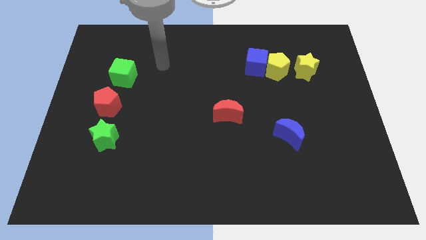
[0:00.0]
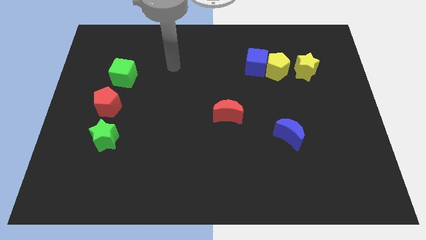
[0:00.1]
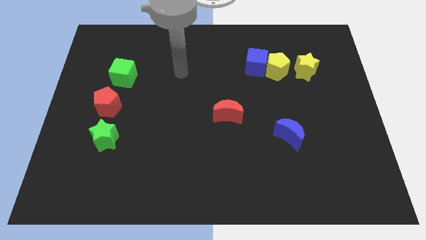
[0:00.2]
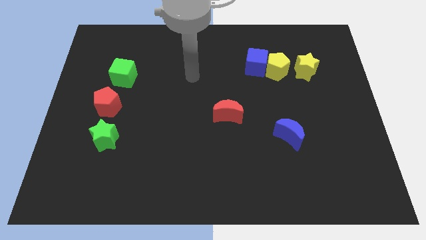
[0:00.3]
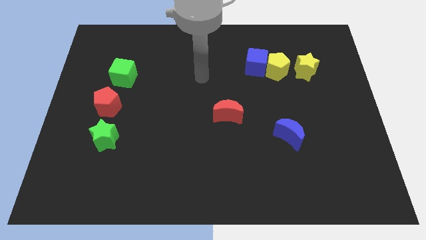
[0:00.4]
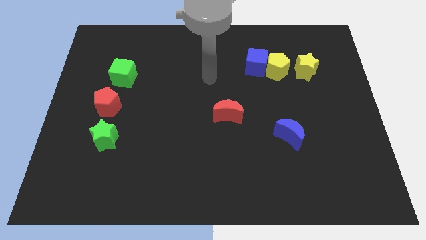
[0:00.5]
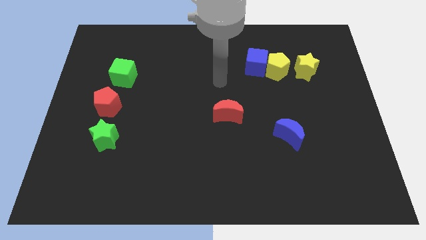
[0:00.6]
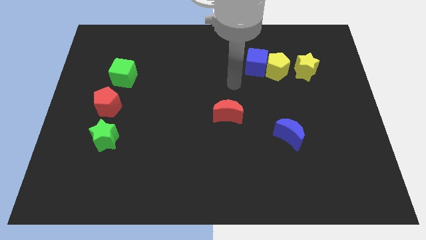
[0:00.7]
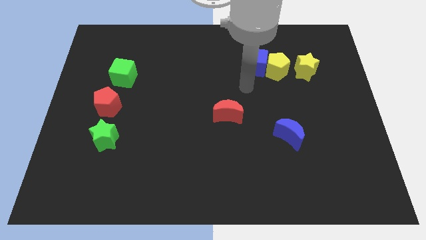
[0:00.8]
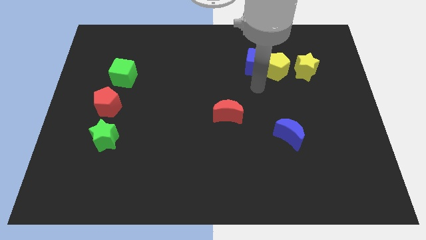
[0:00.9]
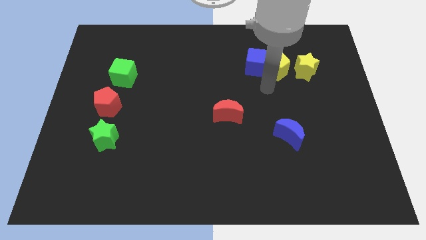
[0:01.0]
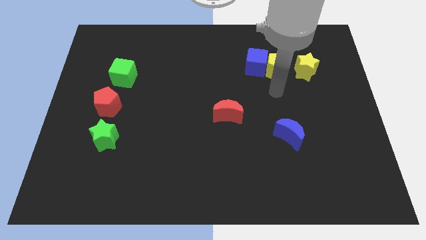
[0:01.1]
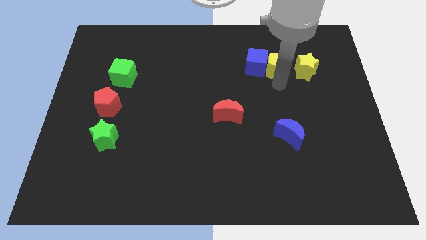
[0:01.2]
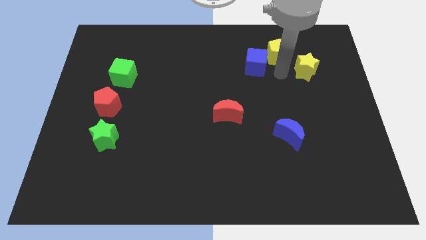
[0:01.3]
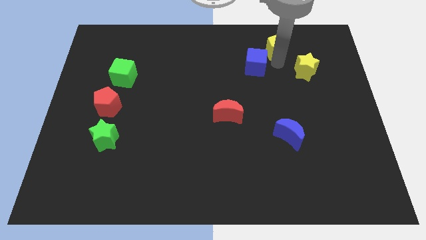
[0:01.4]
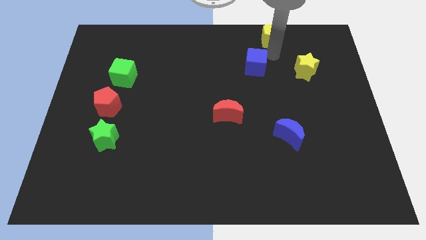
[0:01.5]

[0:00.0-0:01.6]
pull the blue cube apart from the yellow pentagon

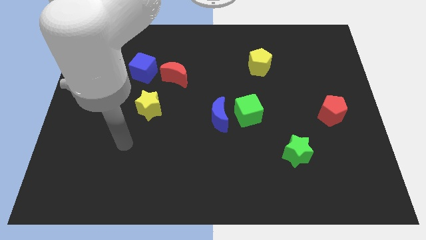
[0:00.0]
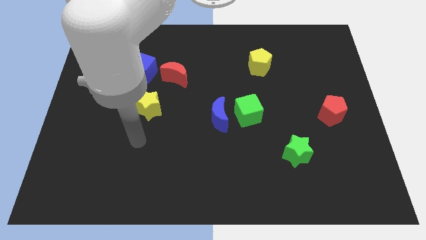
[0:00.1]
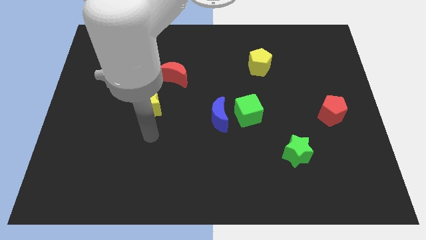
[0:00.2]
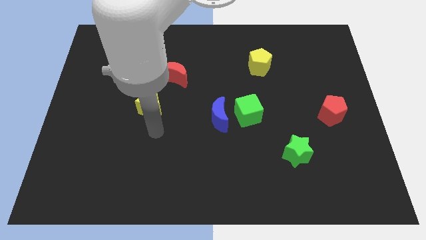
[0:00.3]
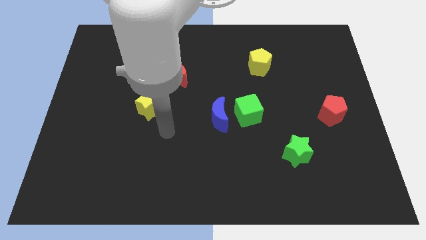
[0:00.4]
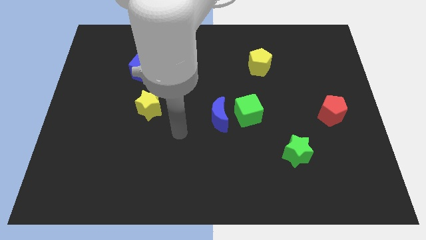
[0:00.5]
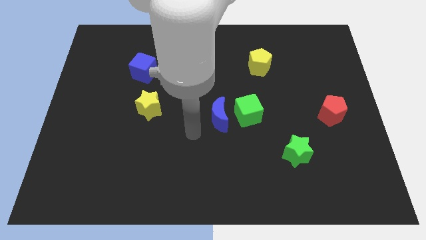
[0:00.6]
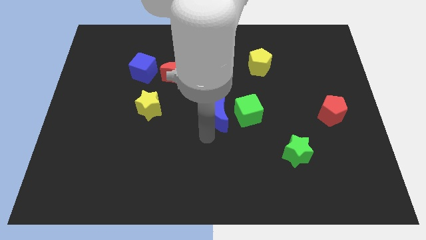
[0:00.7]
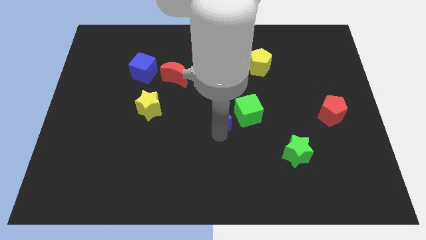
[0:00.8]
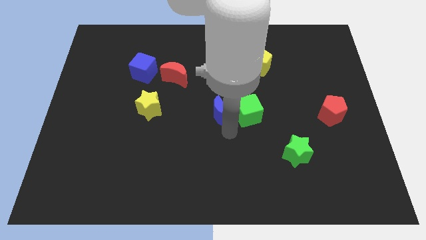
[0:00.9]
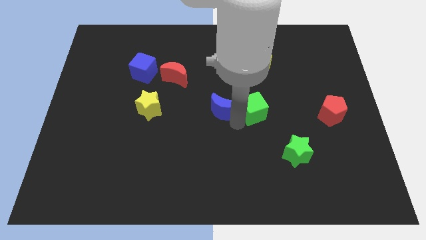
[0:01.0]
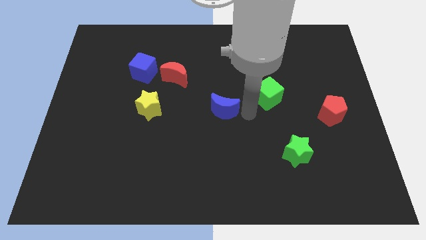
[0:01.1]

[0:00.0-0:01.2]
pull the blue moon apart from the green cube

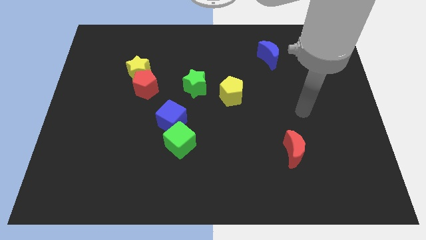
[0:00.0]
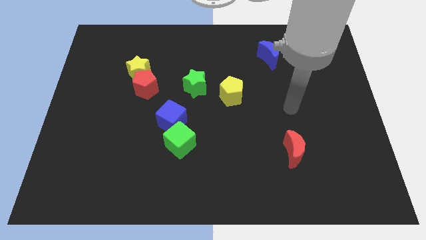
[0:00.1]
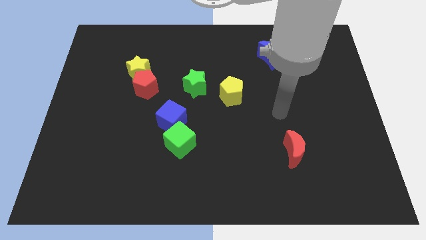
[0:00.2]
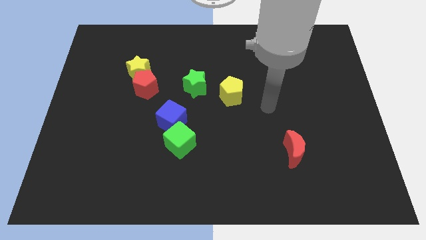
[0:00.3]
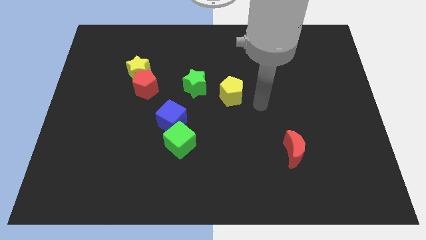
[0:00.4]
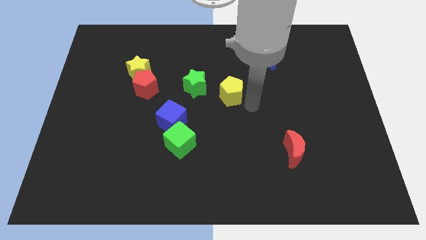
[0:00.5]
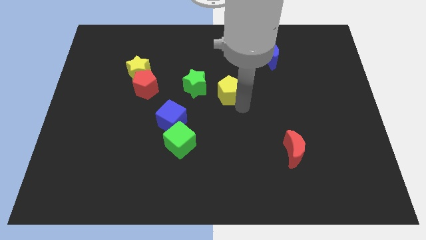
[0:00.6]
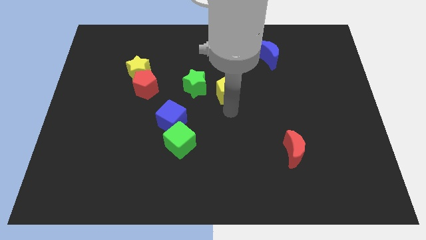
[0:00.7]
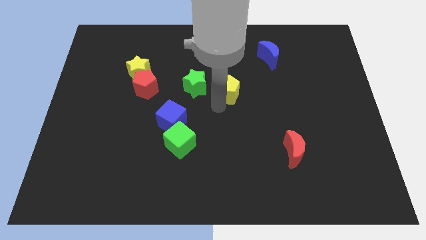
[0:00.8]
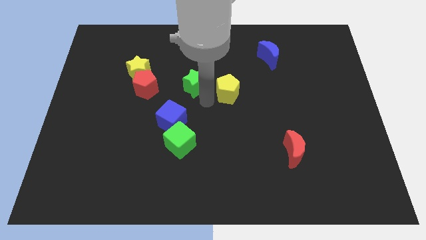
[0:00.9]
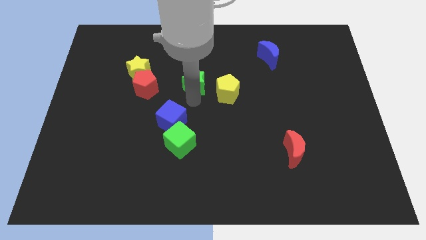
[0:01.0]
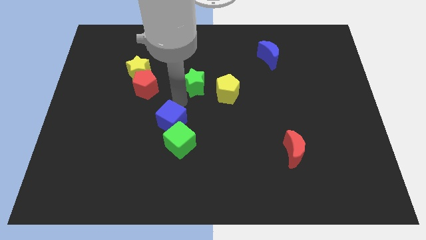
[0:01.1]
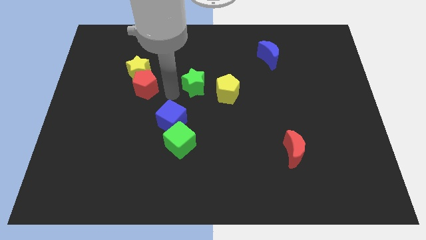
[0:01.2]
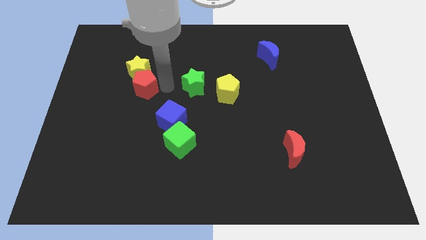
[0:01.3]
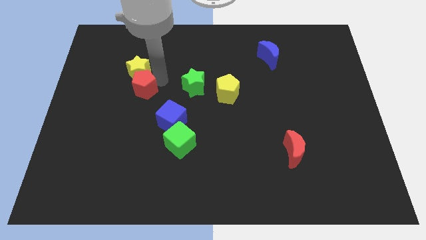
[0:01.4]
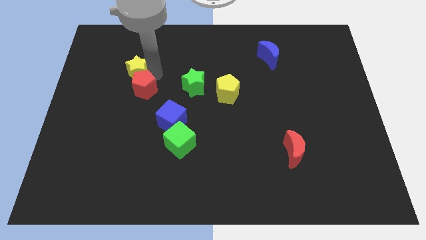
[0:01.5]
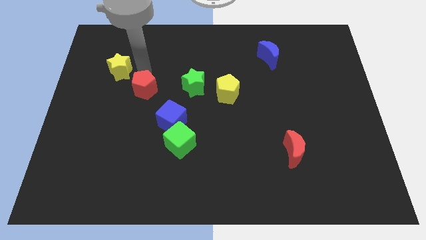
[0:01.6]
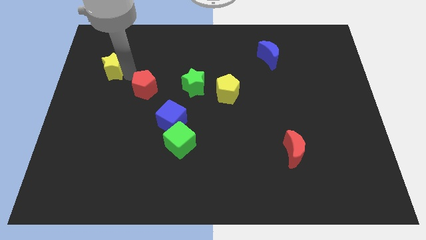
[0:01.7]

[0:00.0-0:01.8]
move the red pentagon away from the yellow star

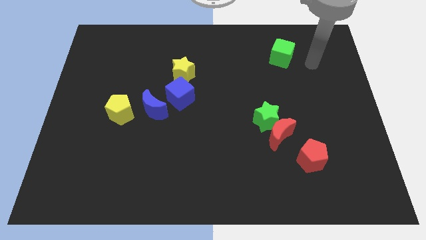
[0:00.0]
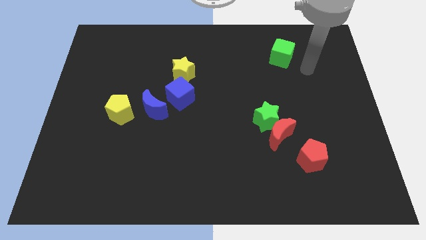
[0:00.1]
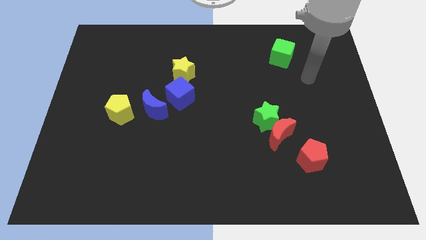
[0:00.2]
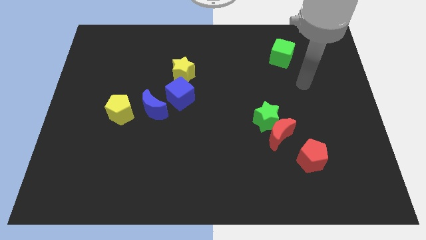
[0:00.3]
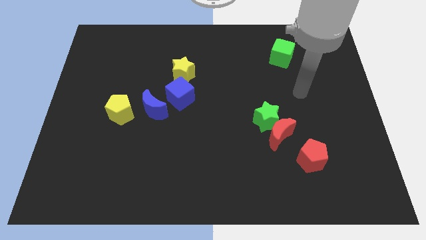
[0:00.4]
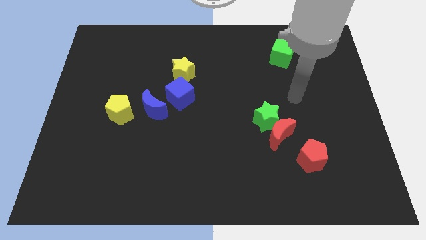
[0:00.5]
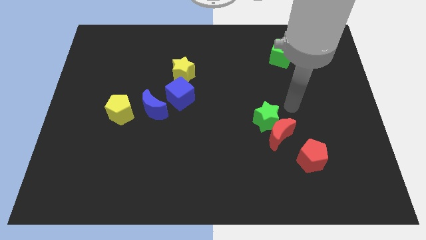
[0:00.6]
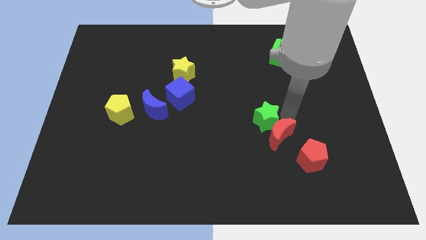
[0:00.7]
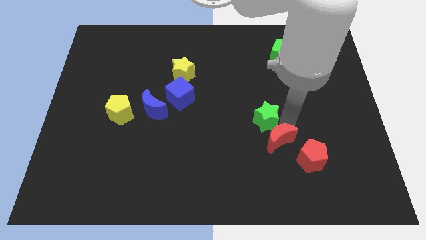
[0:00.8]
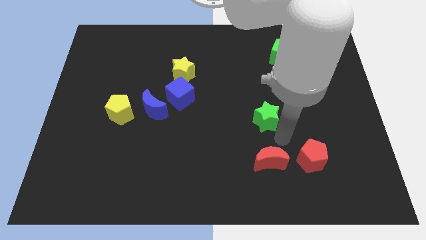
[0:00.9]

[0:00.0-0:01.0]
pull the green star apart from the red moon

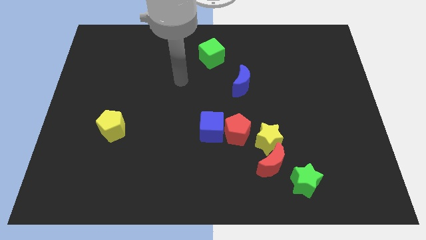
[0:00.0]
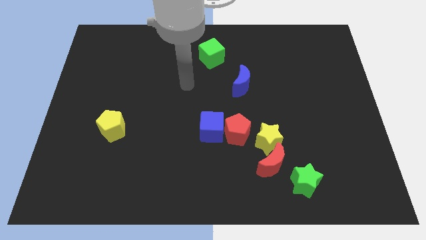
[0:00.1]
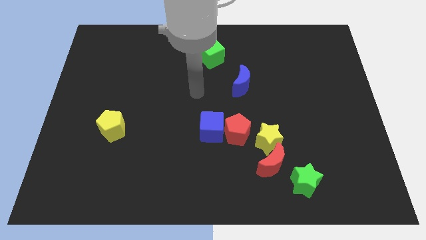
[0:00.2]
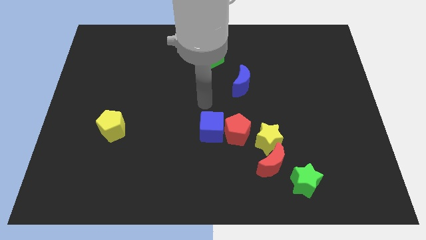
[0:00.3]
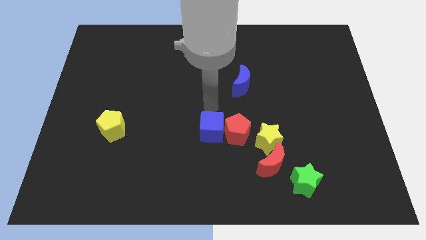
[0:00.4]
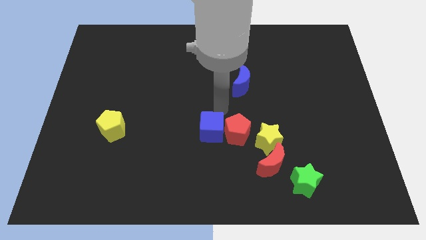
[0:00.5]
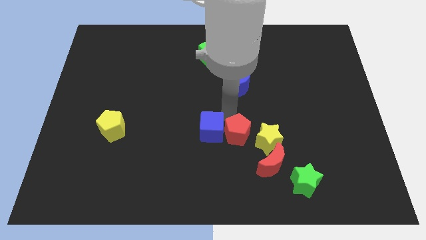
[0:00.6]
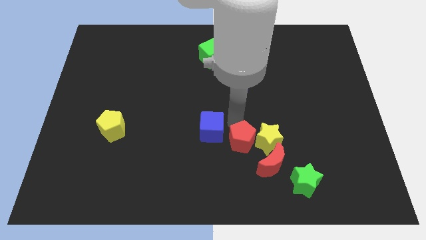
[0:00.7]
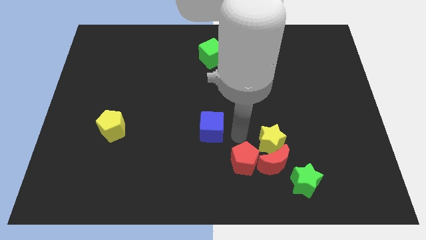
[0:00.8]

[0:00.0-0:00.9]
move the blue cube away from the red pentagon

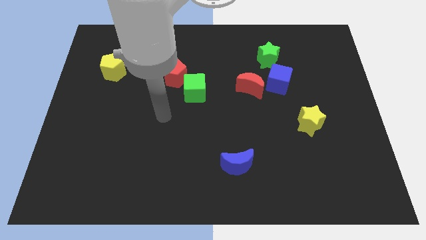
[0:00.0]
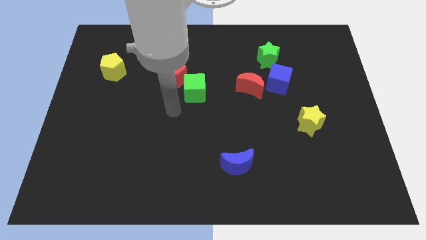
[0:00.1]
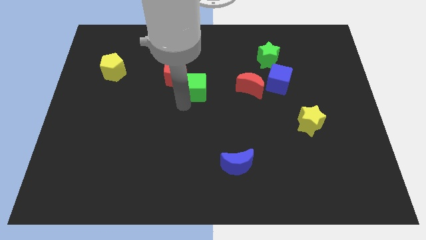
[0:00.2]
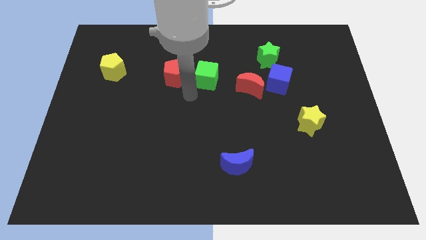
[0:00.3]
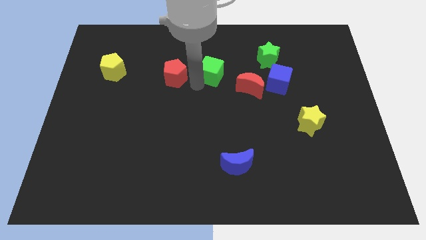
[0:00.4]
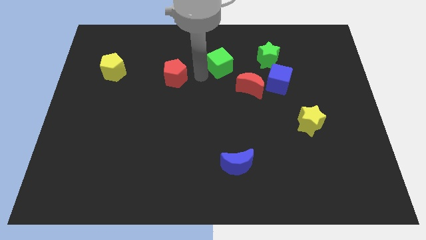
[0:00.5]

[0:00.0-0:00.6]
separate the red pentagon from the green cube

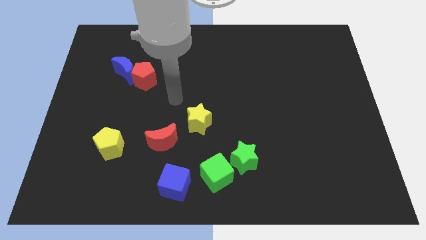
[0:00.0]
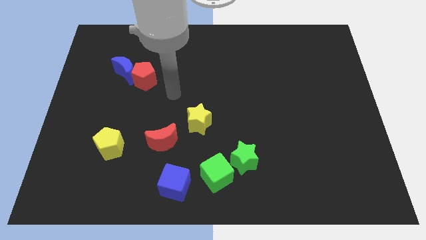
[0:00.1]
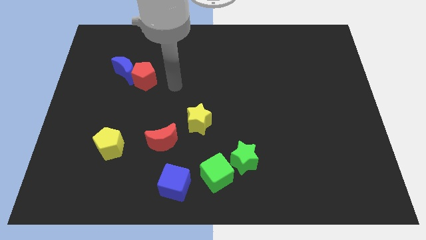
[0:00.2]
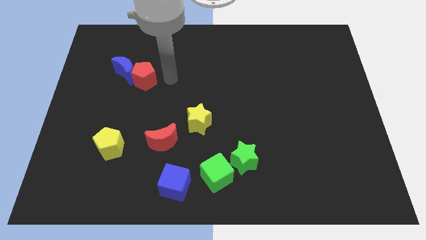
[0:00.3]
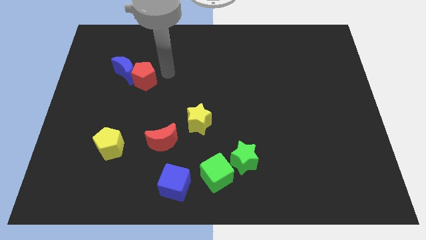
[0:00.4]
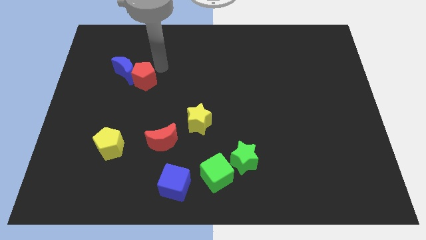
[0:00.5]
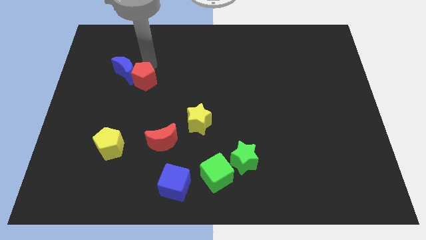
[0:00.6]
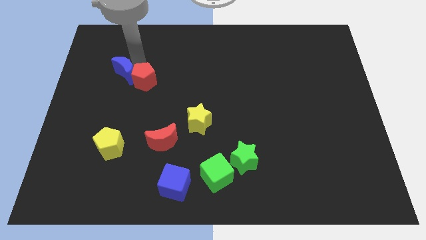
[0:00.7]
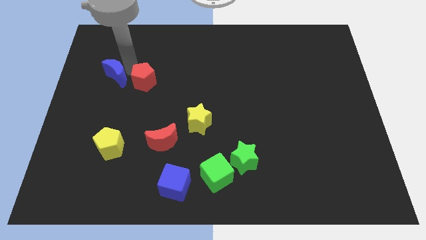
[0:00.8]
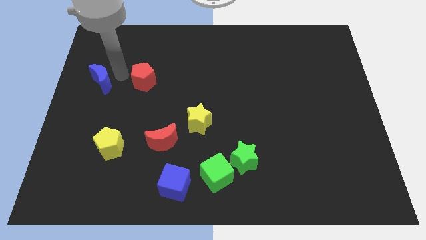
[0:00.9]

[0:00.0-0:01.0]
pull the red pentagon apart from the blue moon

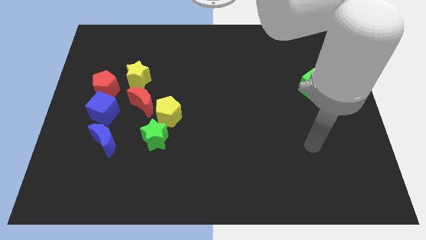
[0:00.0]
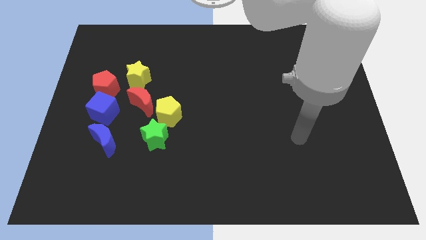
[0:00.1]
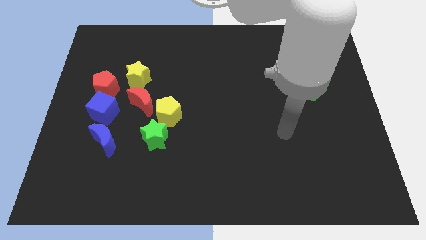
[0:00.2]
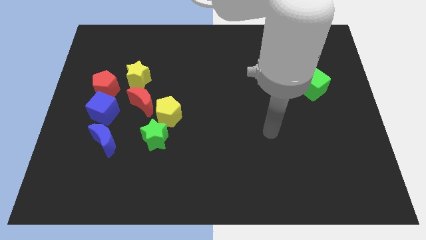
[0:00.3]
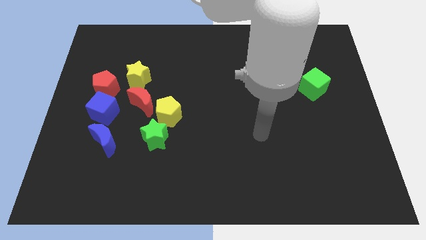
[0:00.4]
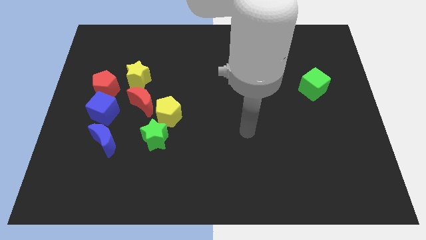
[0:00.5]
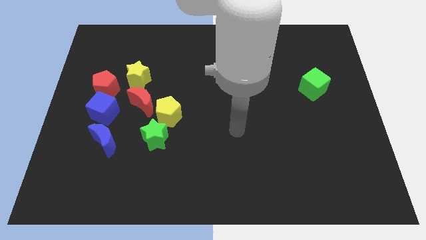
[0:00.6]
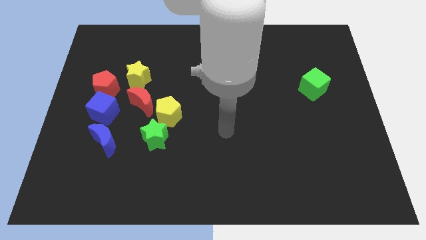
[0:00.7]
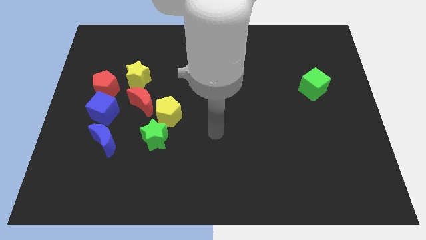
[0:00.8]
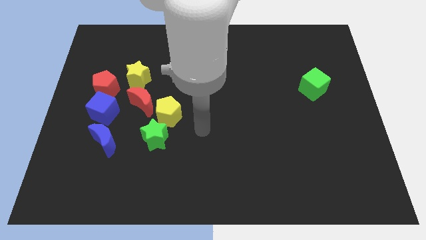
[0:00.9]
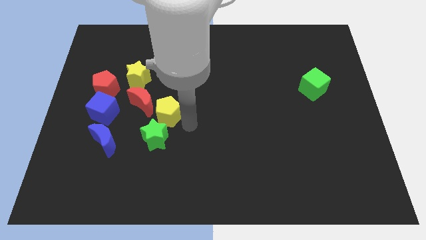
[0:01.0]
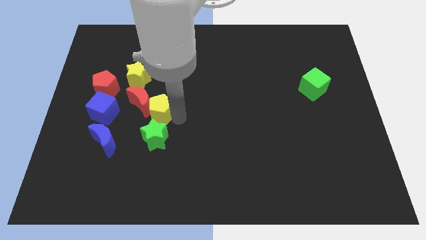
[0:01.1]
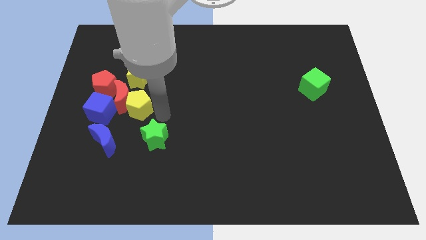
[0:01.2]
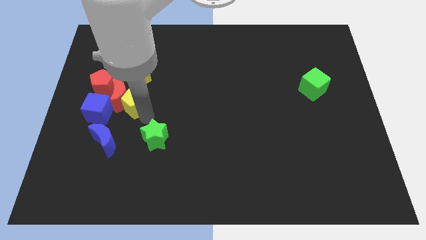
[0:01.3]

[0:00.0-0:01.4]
separate the green star from the yellow pentagon
